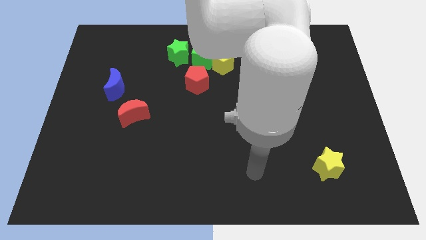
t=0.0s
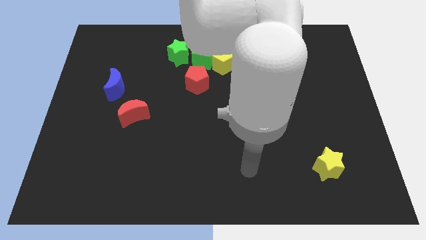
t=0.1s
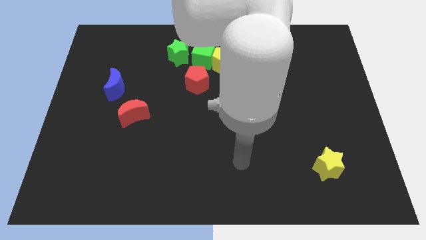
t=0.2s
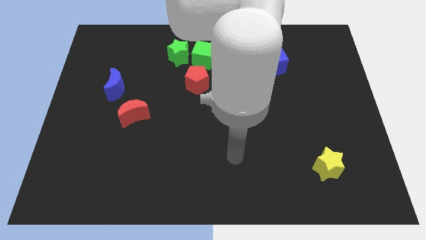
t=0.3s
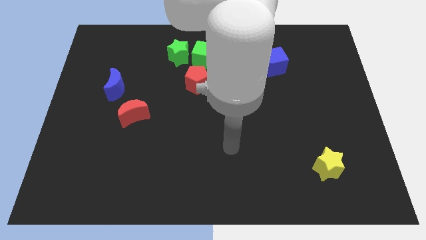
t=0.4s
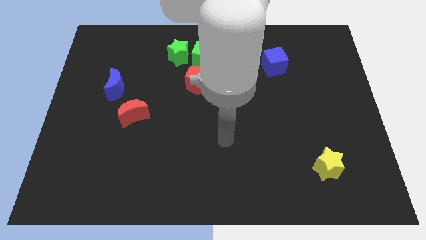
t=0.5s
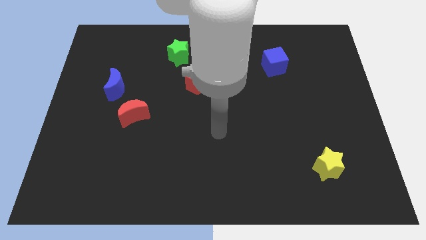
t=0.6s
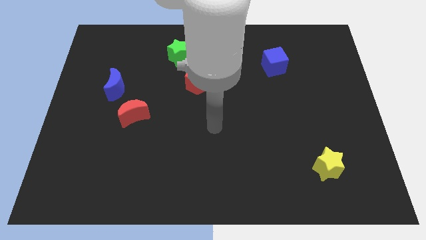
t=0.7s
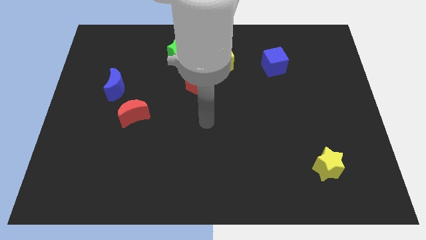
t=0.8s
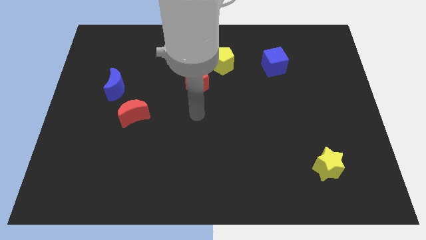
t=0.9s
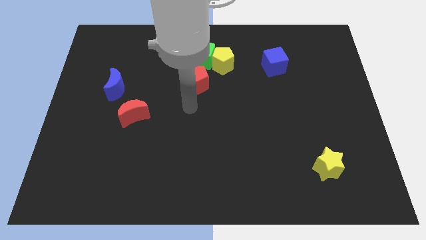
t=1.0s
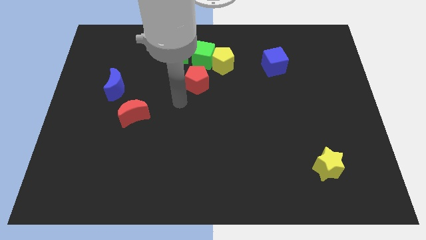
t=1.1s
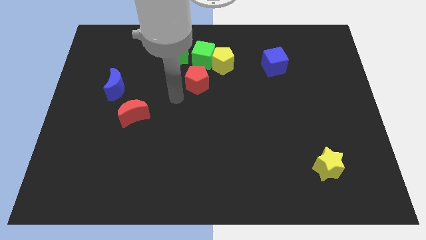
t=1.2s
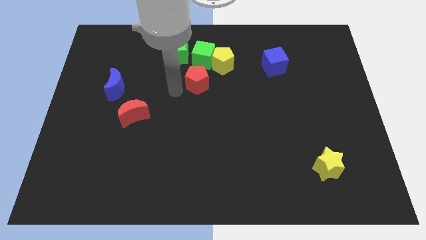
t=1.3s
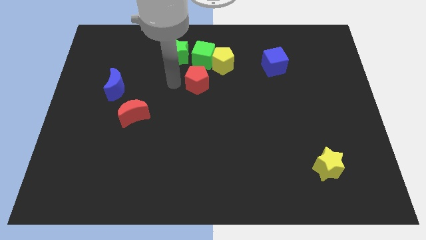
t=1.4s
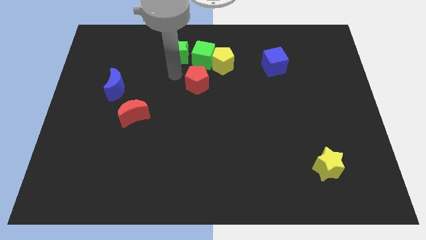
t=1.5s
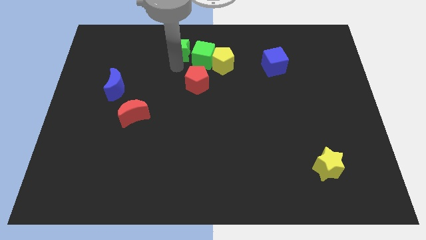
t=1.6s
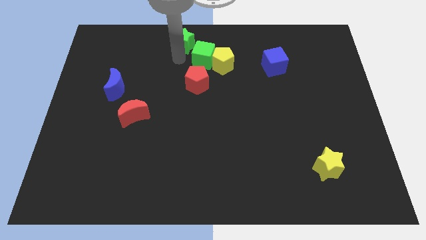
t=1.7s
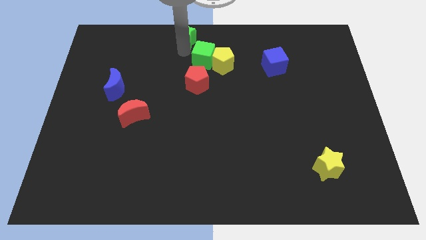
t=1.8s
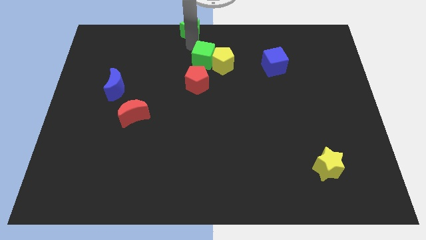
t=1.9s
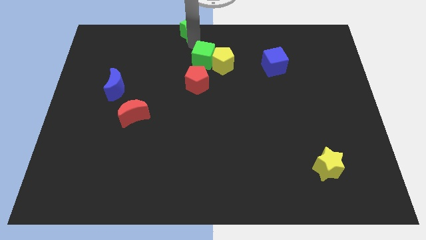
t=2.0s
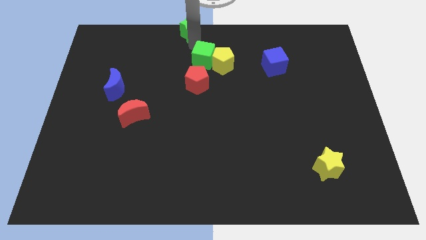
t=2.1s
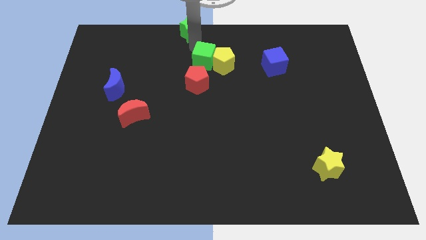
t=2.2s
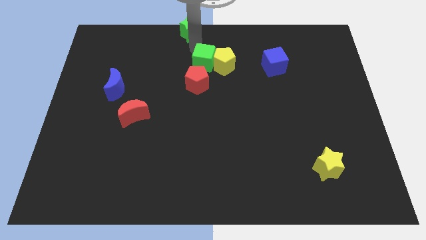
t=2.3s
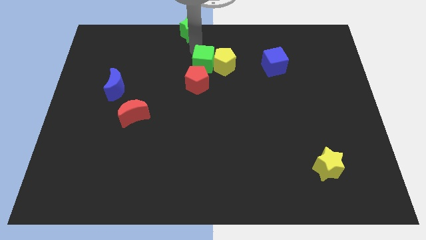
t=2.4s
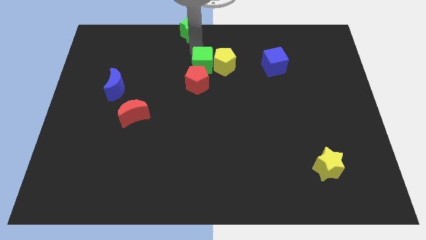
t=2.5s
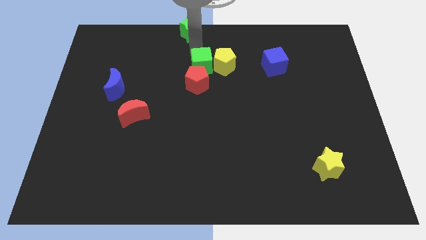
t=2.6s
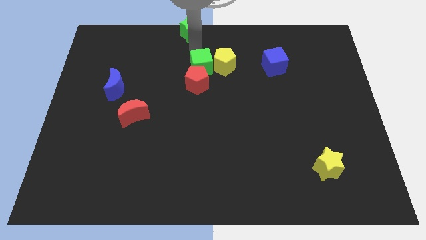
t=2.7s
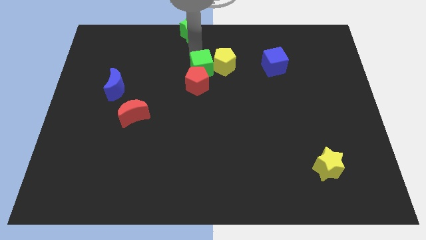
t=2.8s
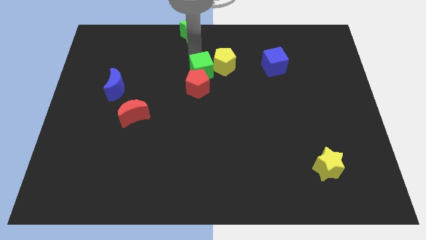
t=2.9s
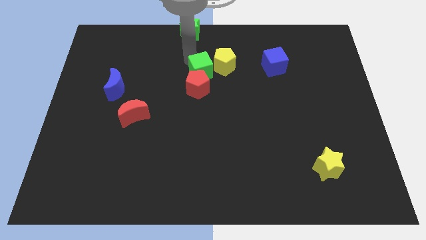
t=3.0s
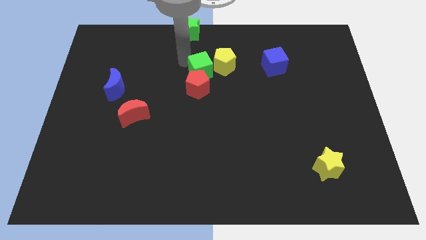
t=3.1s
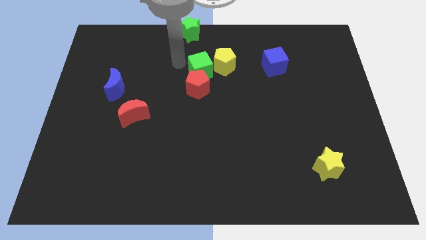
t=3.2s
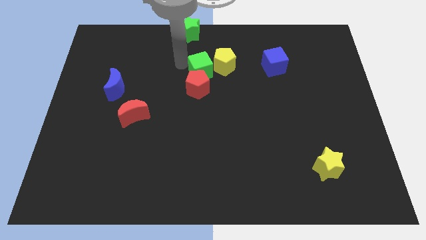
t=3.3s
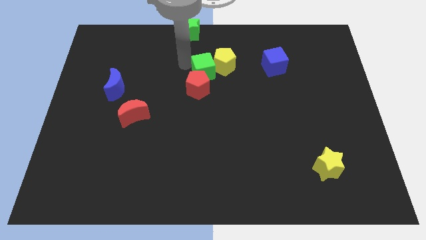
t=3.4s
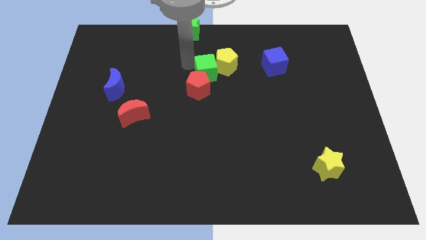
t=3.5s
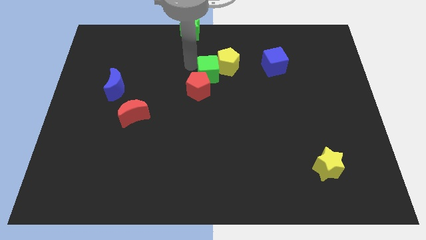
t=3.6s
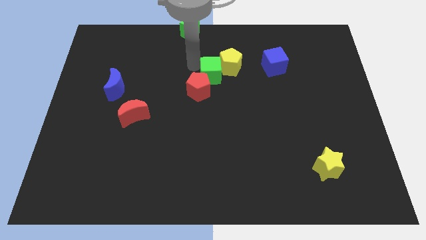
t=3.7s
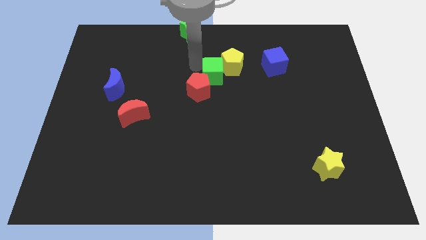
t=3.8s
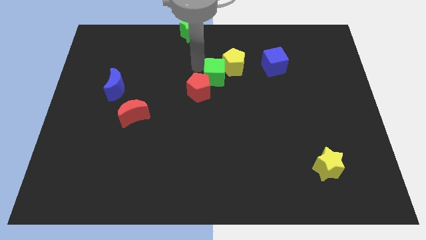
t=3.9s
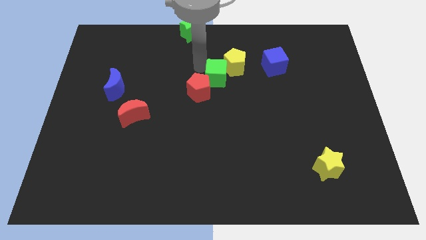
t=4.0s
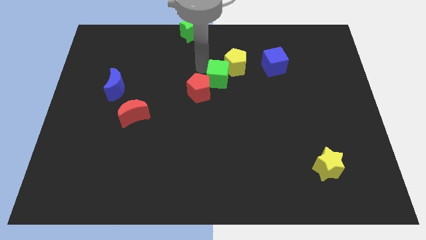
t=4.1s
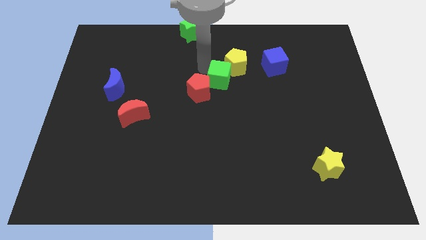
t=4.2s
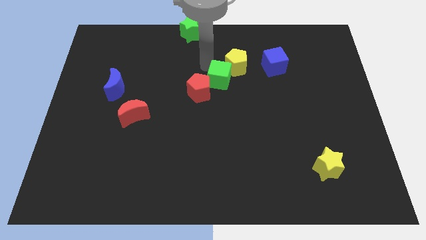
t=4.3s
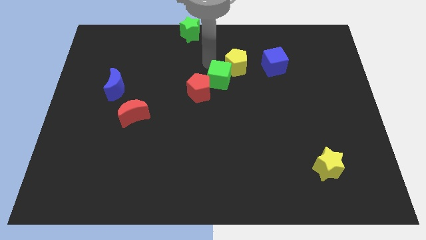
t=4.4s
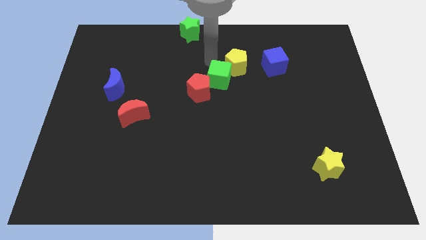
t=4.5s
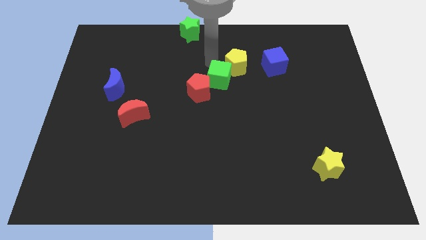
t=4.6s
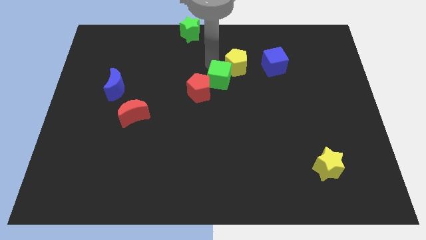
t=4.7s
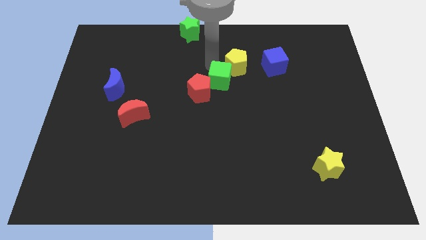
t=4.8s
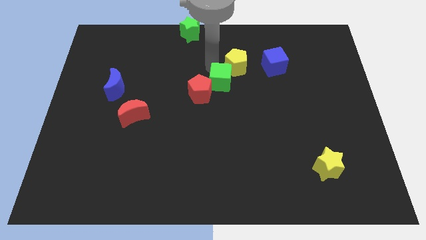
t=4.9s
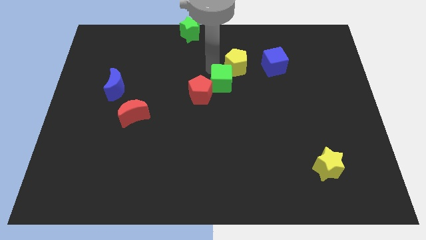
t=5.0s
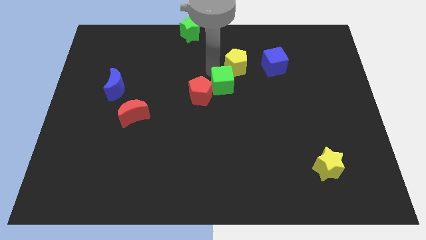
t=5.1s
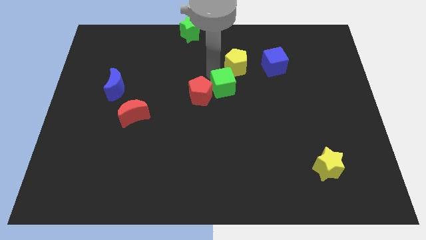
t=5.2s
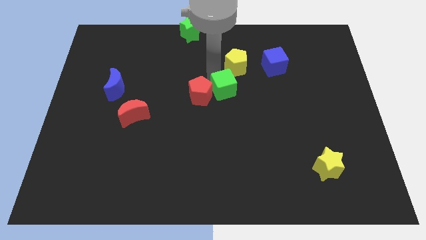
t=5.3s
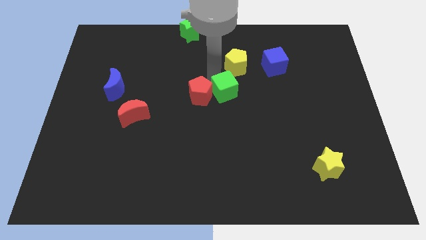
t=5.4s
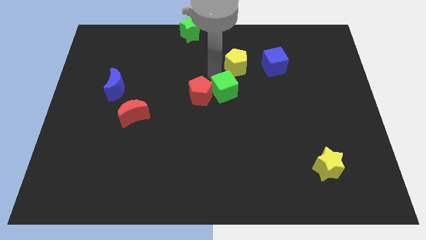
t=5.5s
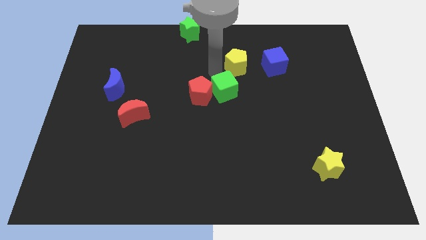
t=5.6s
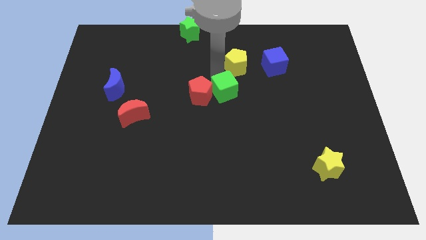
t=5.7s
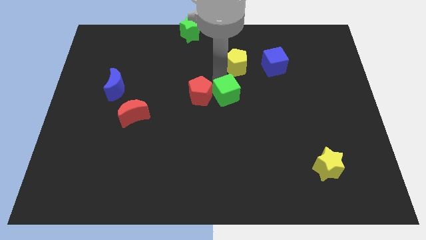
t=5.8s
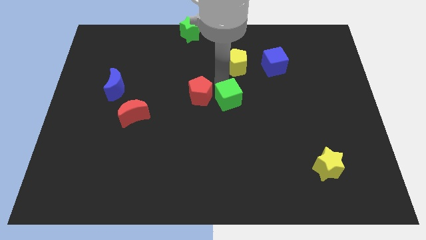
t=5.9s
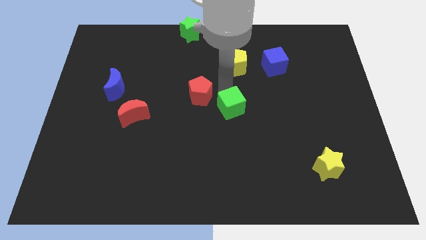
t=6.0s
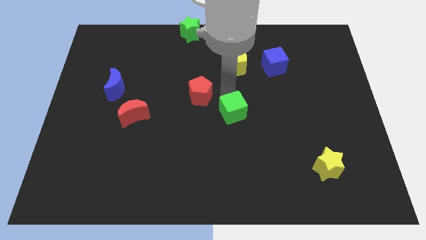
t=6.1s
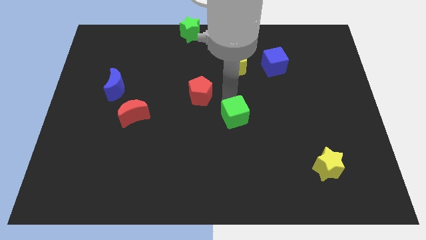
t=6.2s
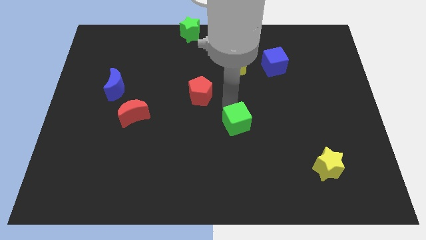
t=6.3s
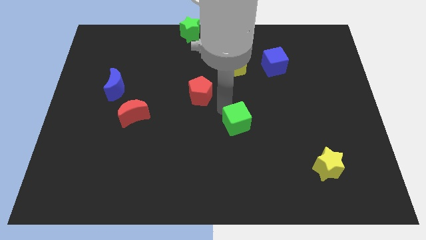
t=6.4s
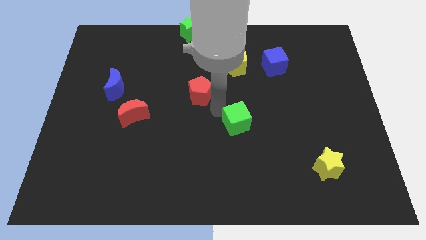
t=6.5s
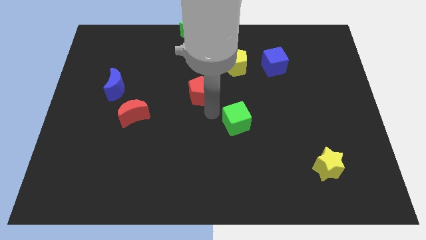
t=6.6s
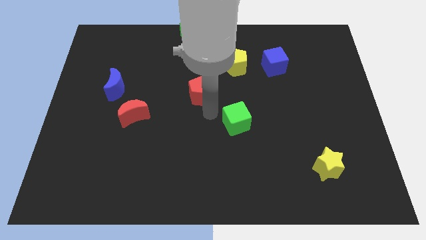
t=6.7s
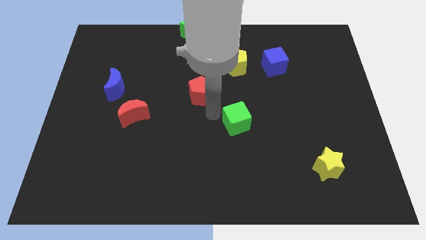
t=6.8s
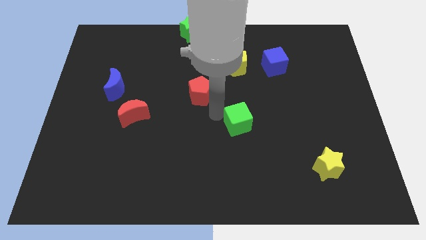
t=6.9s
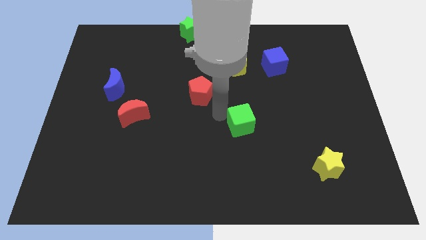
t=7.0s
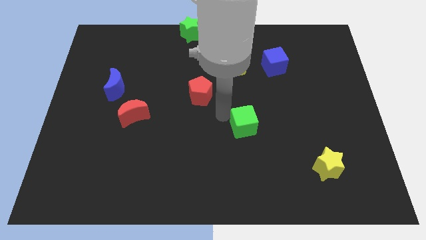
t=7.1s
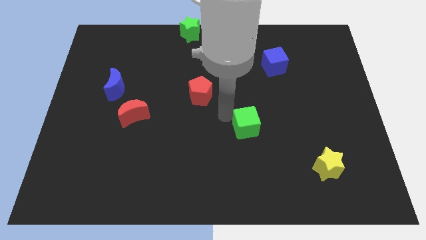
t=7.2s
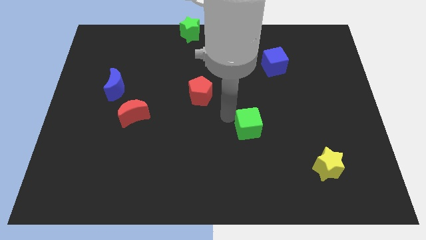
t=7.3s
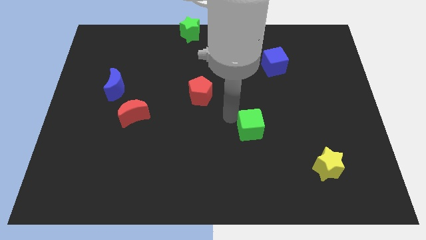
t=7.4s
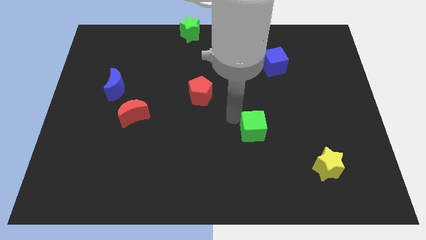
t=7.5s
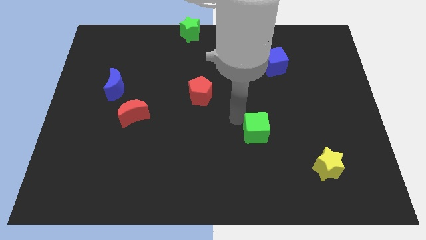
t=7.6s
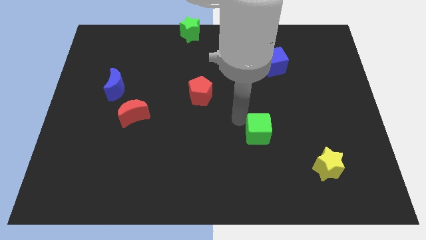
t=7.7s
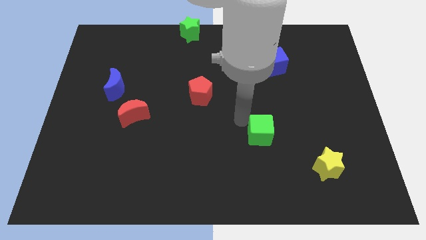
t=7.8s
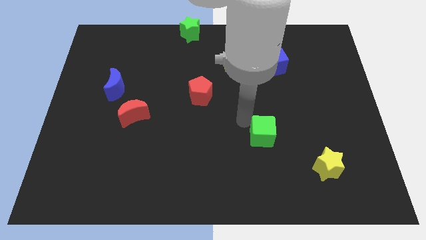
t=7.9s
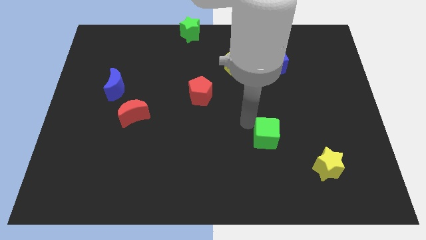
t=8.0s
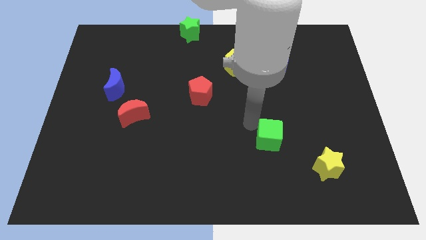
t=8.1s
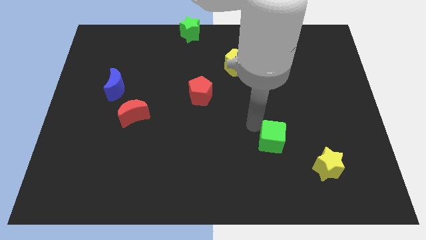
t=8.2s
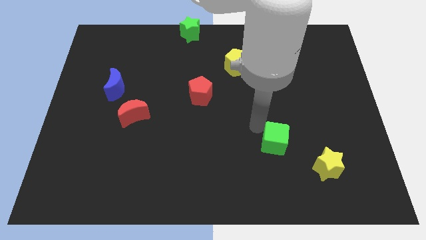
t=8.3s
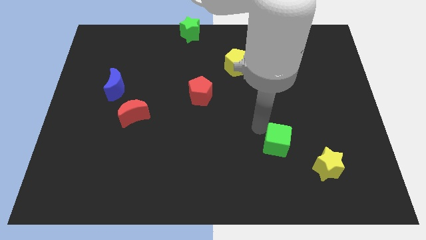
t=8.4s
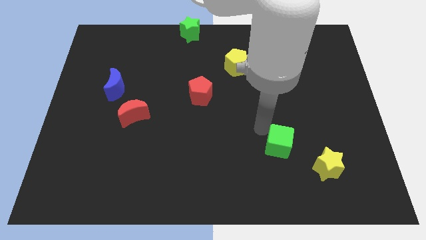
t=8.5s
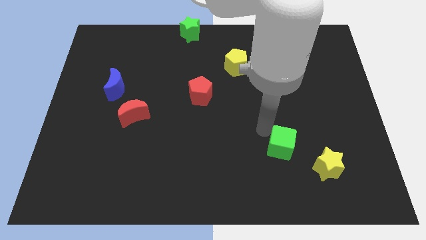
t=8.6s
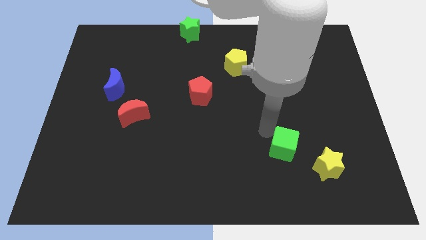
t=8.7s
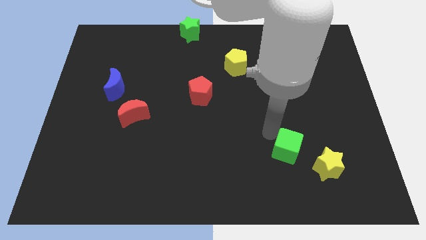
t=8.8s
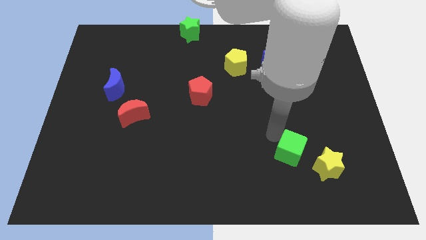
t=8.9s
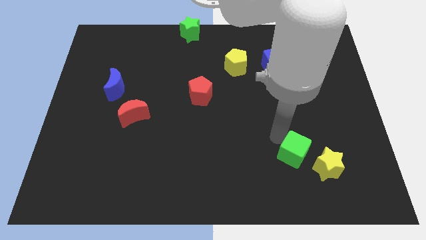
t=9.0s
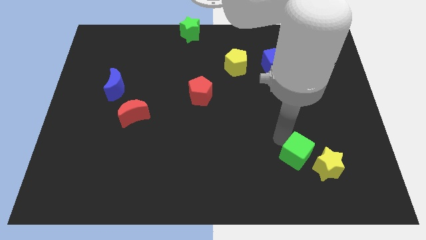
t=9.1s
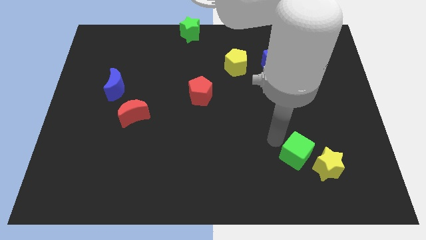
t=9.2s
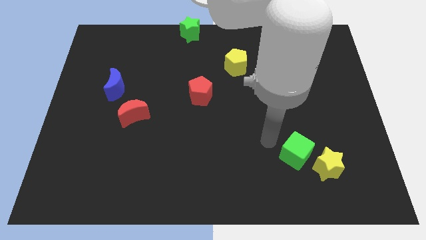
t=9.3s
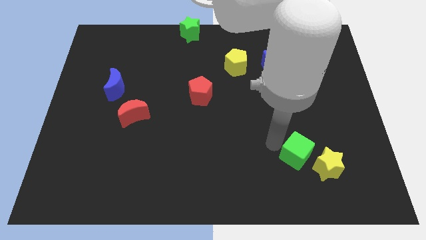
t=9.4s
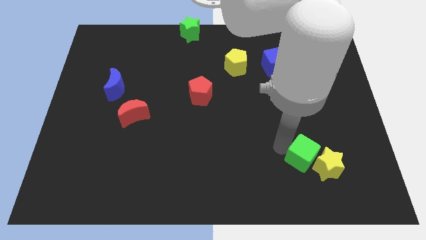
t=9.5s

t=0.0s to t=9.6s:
move the green cube next to the yellow star
